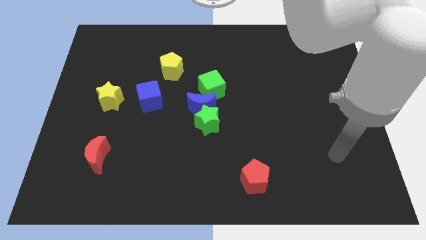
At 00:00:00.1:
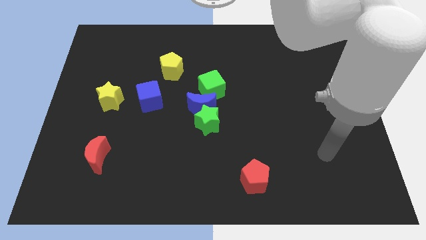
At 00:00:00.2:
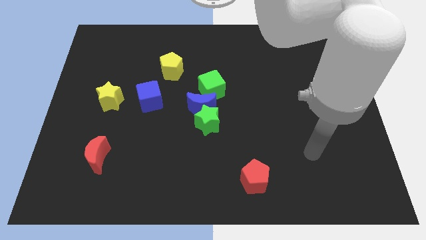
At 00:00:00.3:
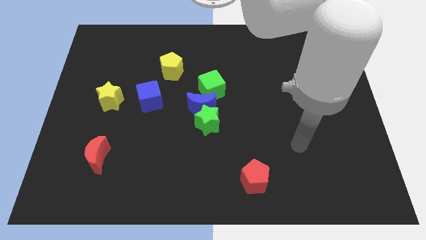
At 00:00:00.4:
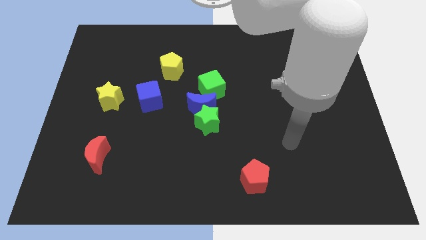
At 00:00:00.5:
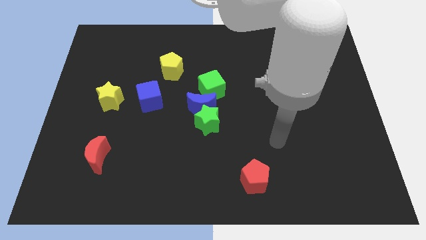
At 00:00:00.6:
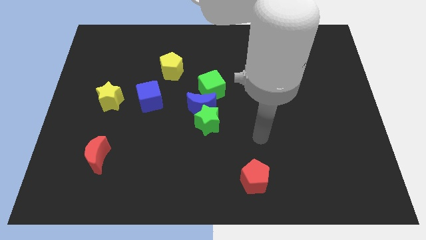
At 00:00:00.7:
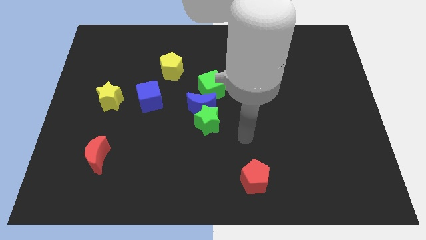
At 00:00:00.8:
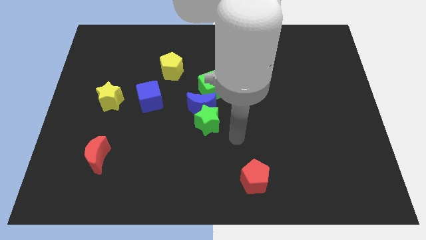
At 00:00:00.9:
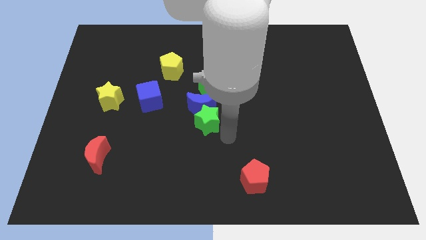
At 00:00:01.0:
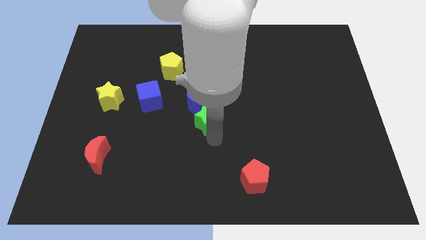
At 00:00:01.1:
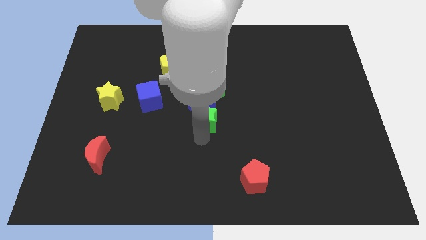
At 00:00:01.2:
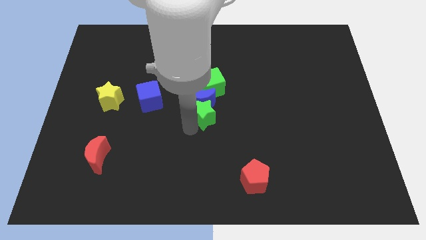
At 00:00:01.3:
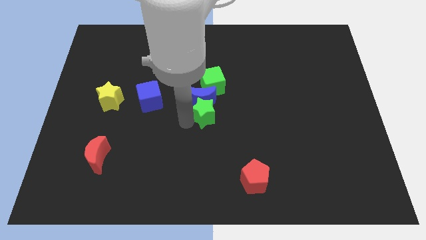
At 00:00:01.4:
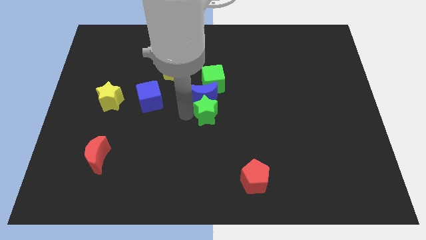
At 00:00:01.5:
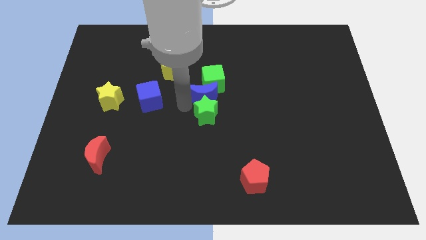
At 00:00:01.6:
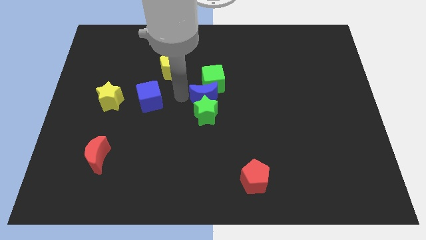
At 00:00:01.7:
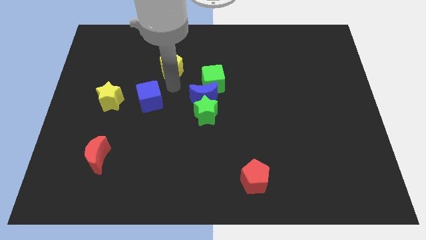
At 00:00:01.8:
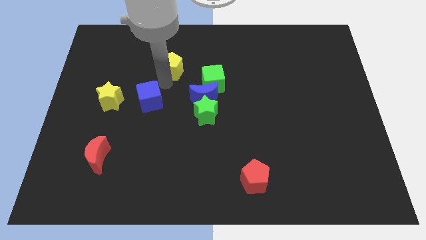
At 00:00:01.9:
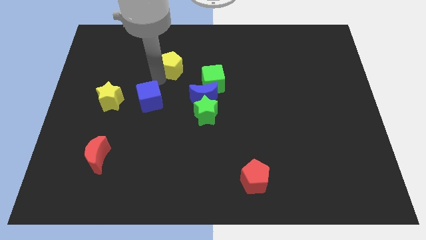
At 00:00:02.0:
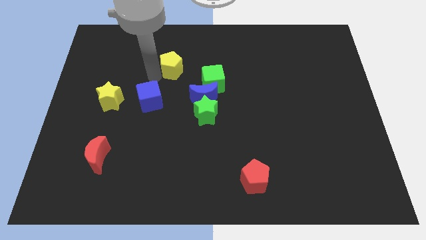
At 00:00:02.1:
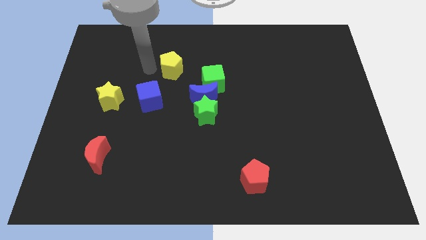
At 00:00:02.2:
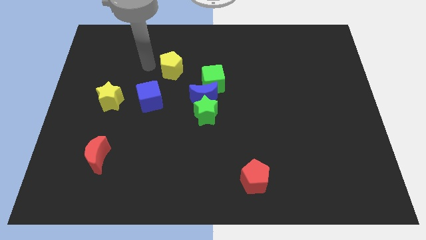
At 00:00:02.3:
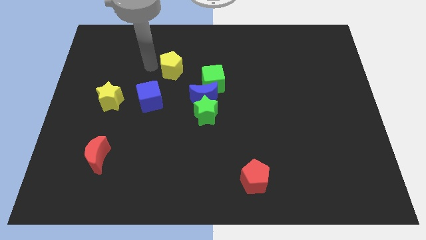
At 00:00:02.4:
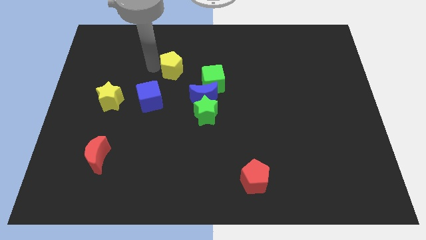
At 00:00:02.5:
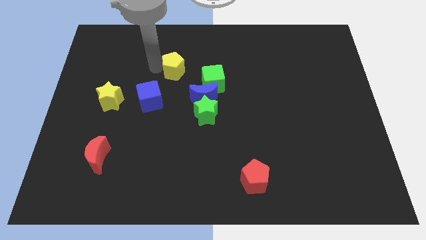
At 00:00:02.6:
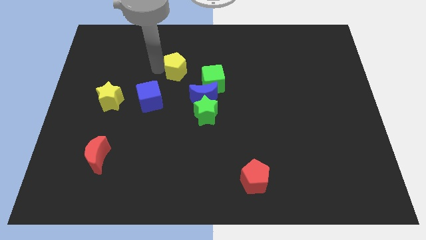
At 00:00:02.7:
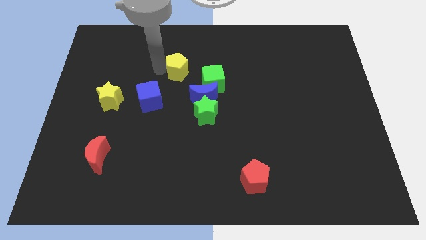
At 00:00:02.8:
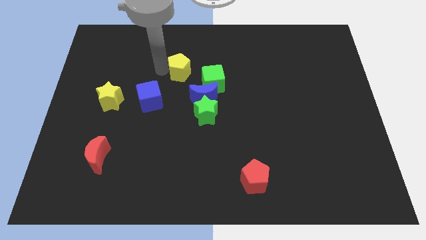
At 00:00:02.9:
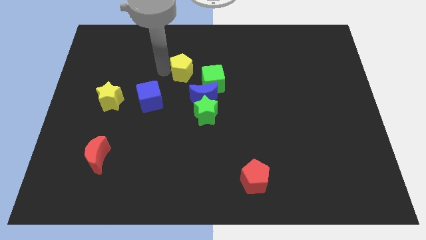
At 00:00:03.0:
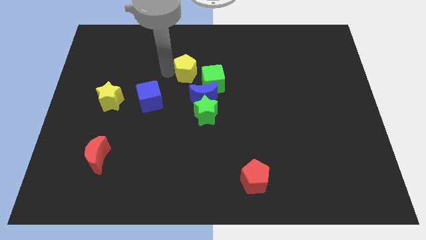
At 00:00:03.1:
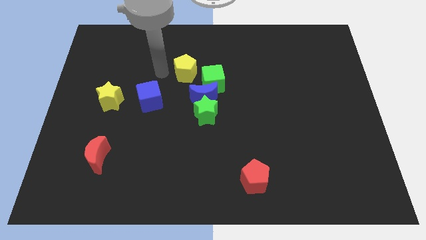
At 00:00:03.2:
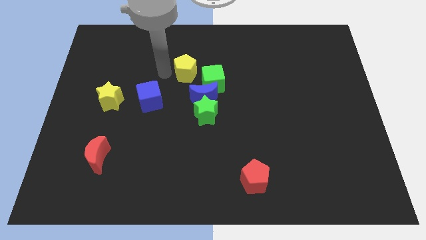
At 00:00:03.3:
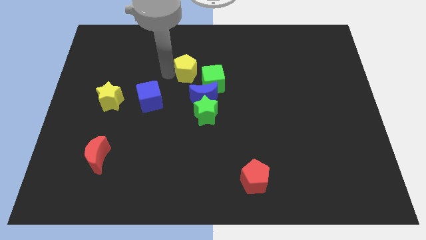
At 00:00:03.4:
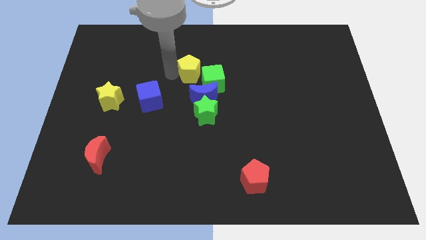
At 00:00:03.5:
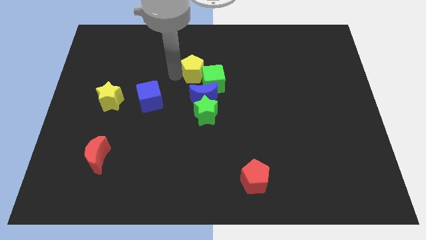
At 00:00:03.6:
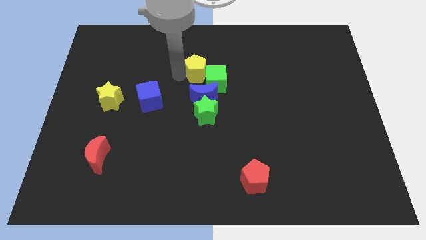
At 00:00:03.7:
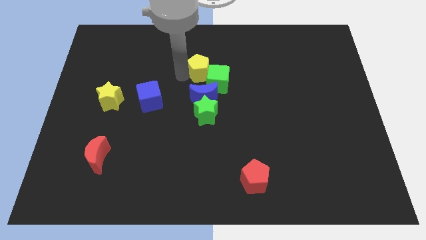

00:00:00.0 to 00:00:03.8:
push the yellow pentagon right slightly

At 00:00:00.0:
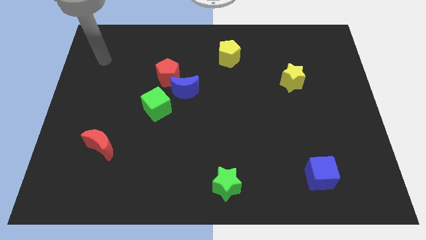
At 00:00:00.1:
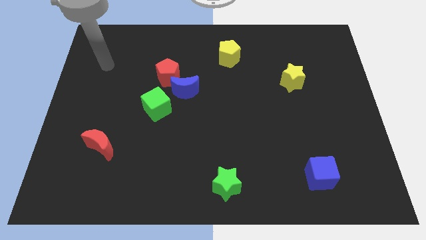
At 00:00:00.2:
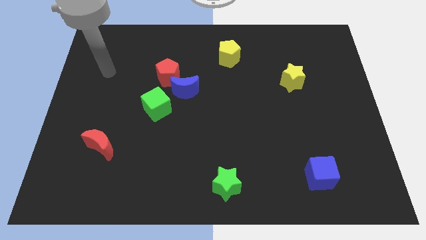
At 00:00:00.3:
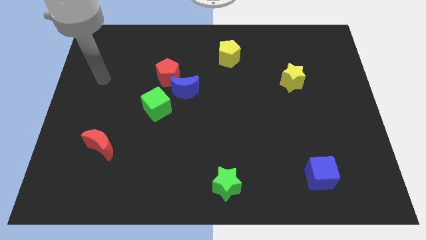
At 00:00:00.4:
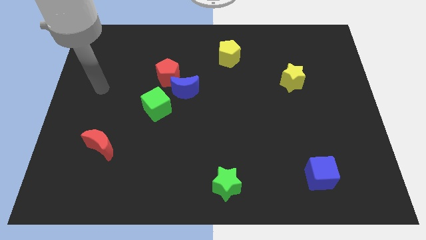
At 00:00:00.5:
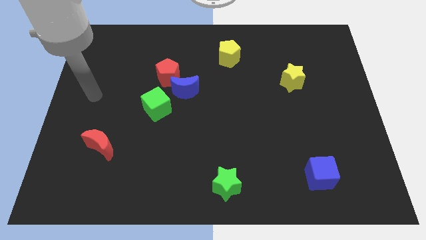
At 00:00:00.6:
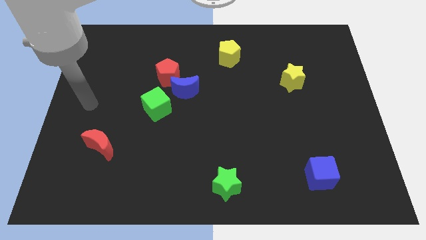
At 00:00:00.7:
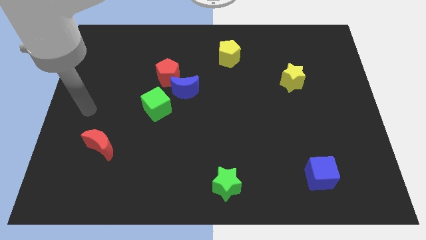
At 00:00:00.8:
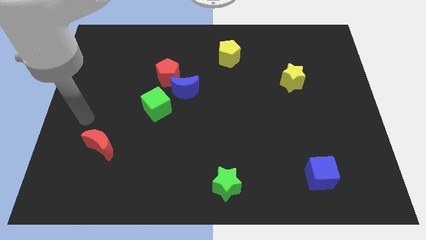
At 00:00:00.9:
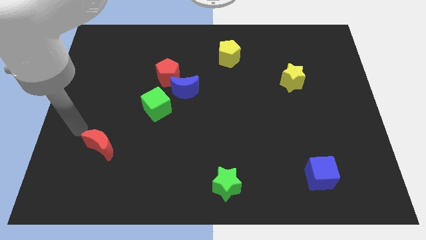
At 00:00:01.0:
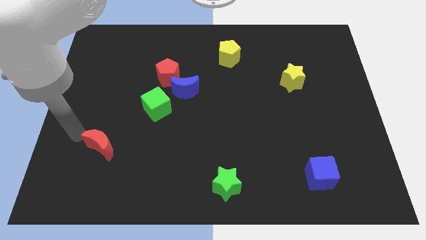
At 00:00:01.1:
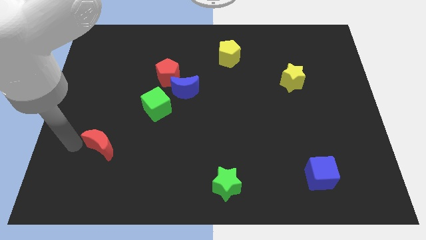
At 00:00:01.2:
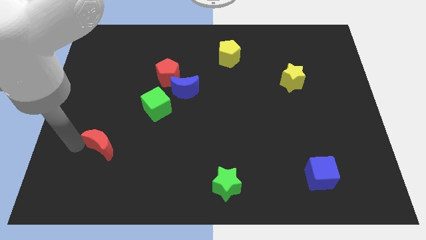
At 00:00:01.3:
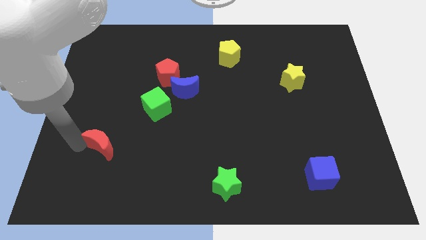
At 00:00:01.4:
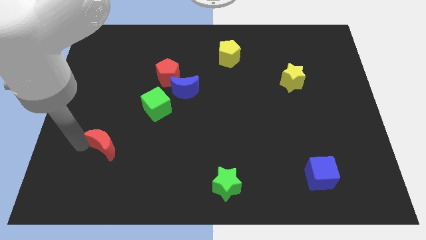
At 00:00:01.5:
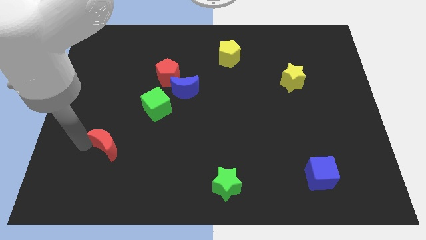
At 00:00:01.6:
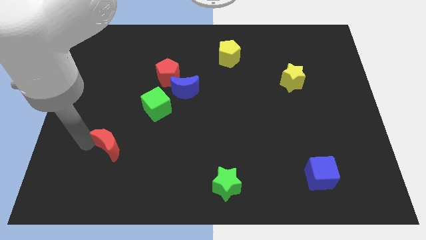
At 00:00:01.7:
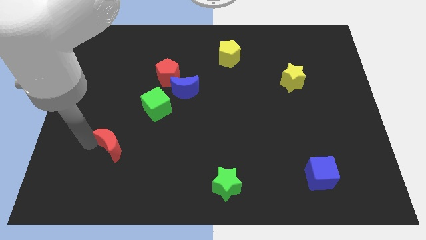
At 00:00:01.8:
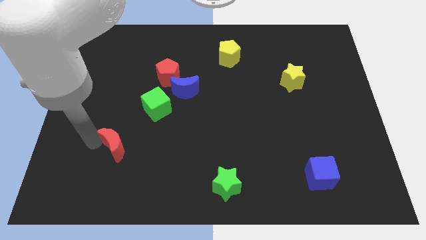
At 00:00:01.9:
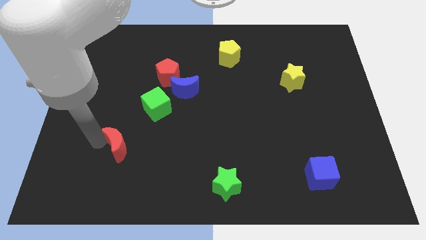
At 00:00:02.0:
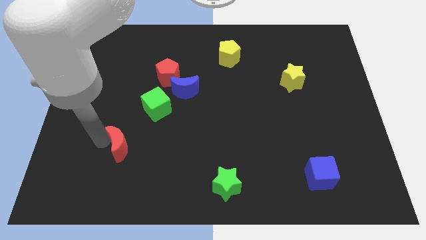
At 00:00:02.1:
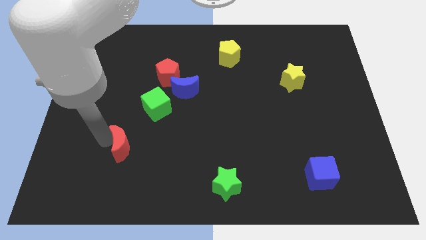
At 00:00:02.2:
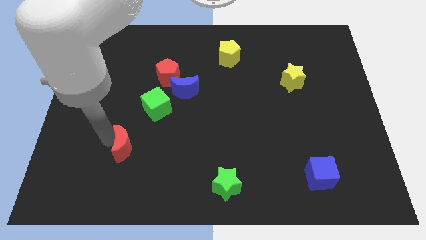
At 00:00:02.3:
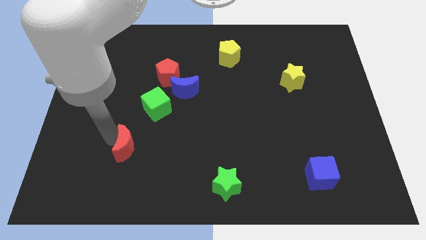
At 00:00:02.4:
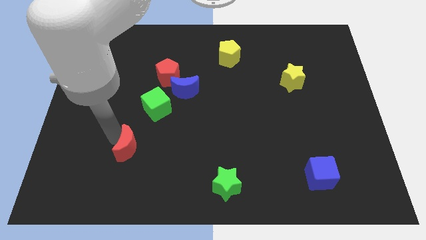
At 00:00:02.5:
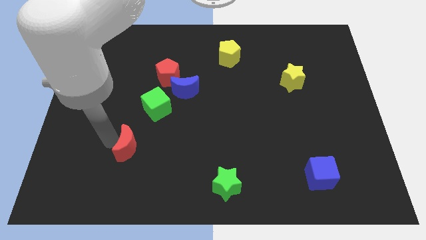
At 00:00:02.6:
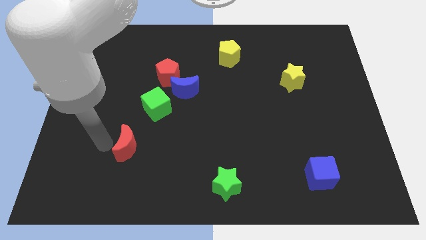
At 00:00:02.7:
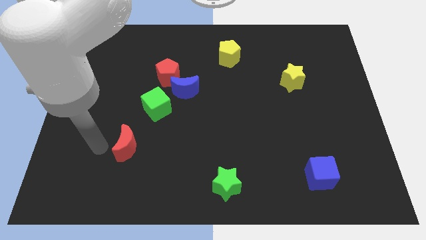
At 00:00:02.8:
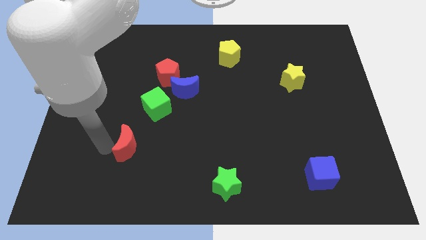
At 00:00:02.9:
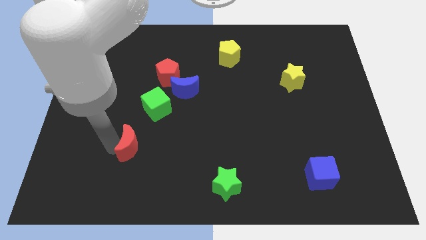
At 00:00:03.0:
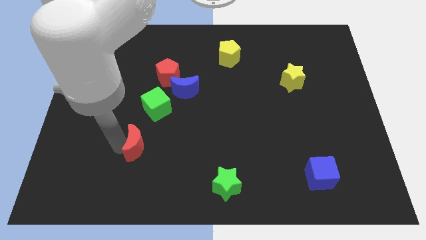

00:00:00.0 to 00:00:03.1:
move the red moon a little bit right

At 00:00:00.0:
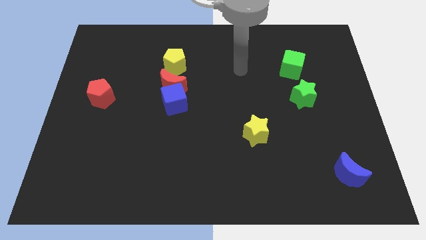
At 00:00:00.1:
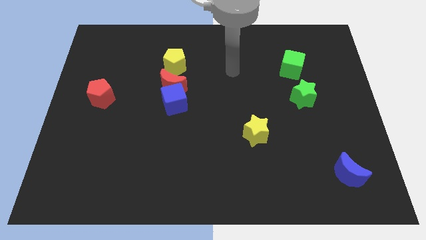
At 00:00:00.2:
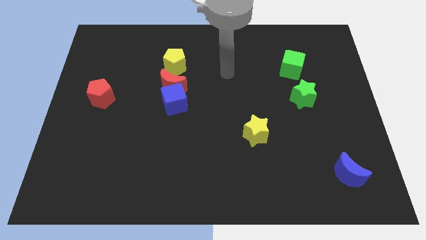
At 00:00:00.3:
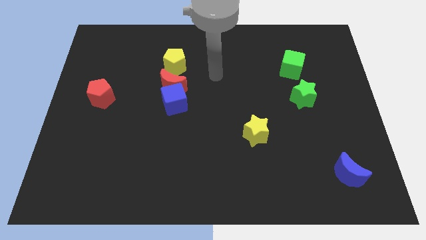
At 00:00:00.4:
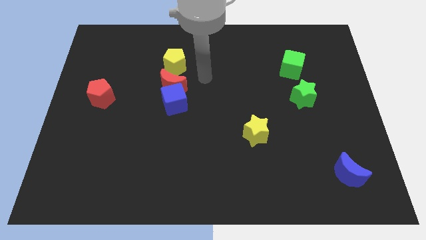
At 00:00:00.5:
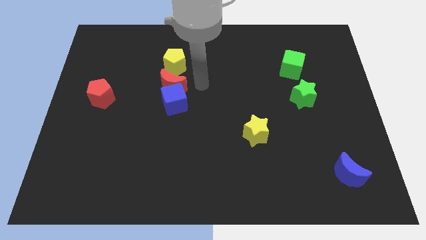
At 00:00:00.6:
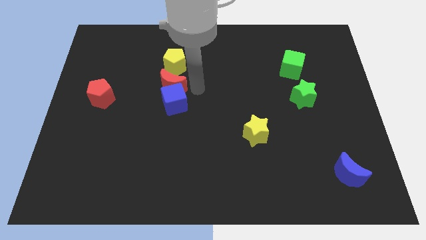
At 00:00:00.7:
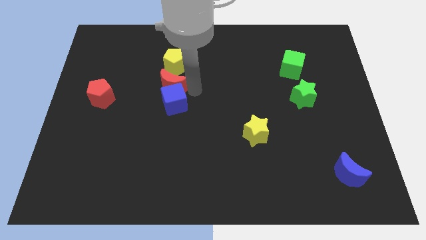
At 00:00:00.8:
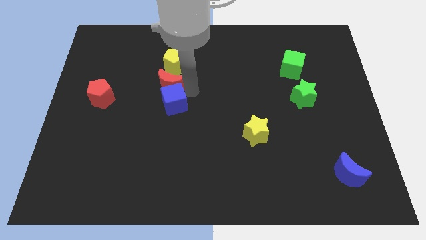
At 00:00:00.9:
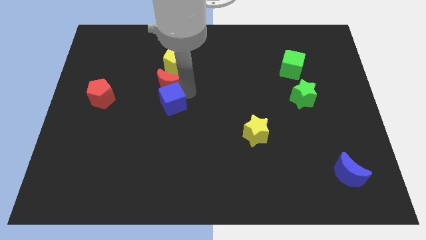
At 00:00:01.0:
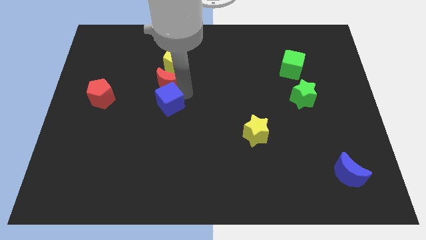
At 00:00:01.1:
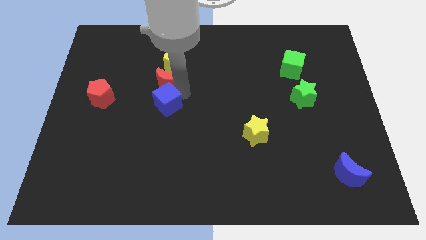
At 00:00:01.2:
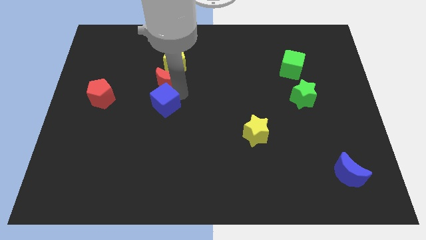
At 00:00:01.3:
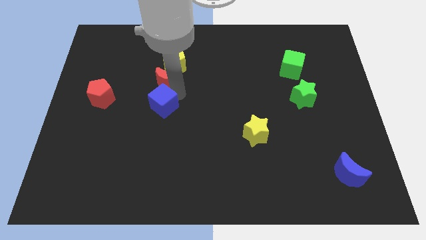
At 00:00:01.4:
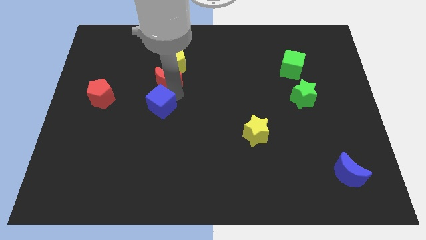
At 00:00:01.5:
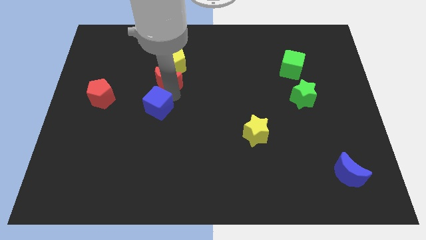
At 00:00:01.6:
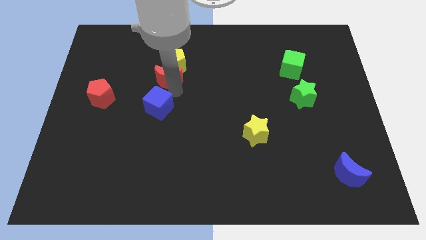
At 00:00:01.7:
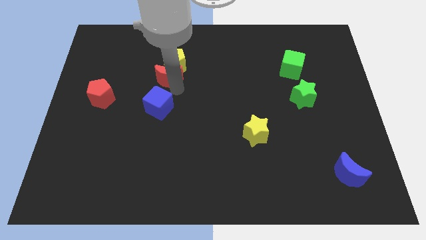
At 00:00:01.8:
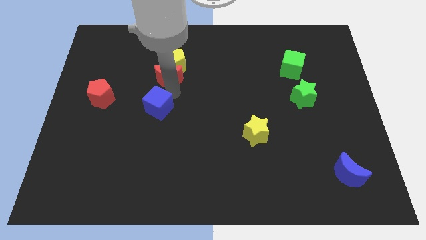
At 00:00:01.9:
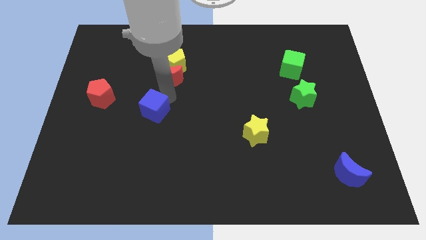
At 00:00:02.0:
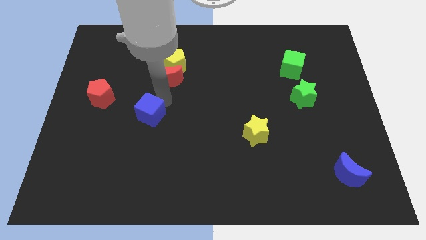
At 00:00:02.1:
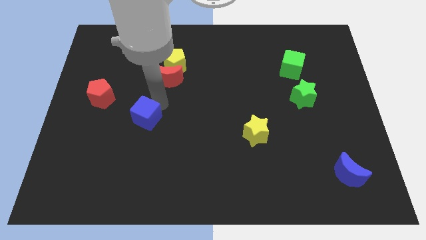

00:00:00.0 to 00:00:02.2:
slide the blue cube slightly downwards and to the left
